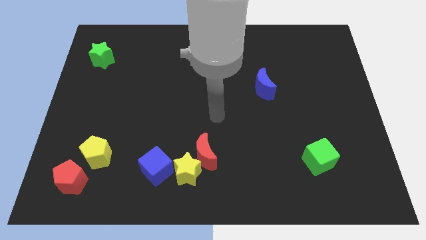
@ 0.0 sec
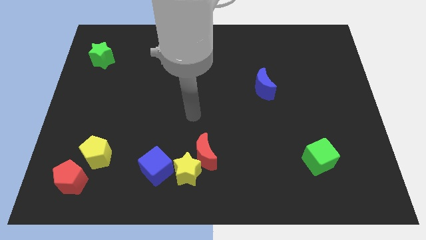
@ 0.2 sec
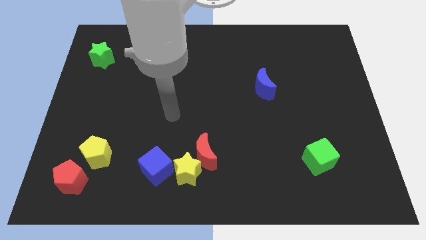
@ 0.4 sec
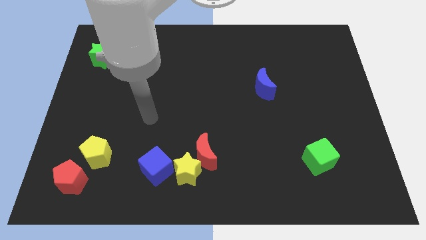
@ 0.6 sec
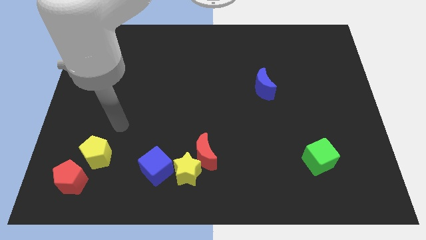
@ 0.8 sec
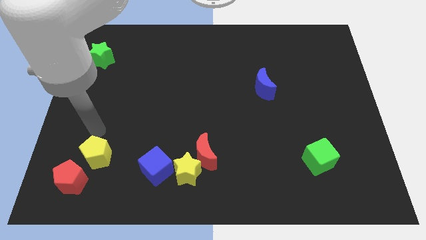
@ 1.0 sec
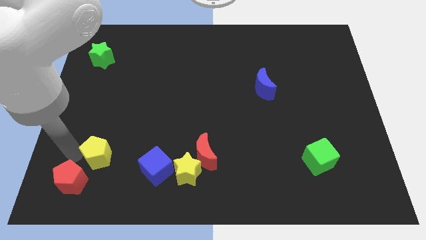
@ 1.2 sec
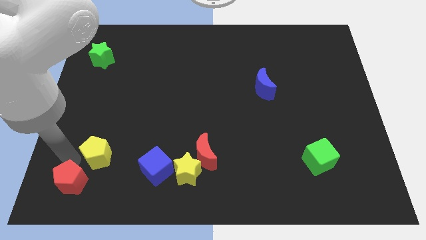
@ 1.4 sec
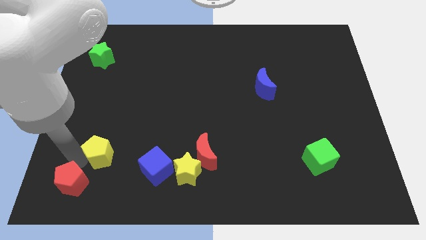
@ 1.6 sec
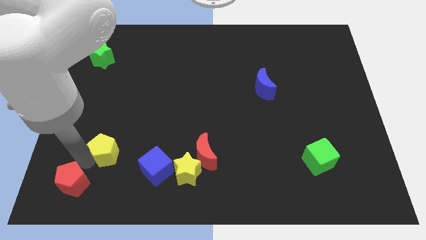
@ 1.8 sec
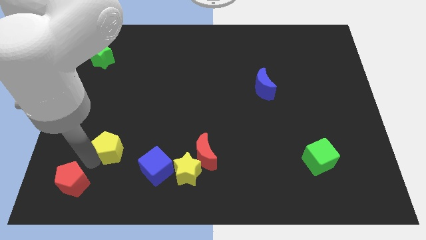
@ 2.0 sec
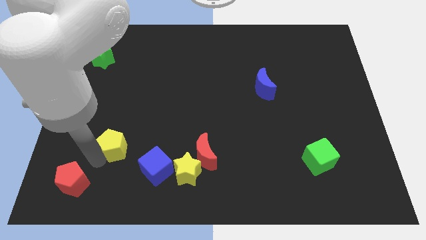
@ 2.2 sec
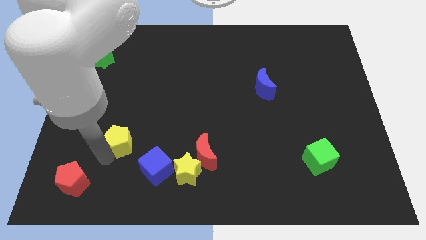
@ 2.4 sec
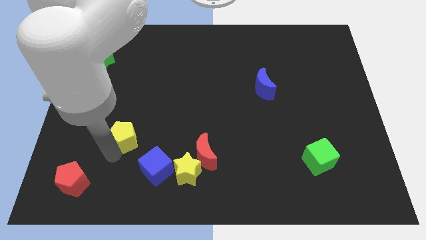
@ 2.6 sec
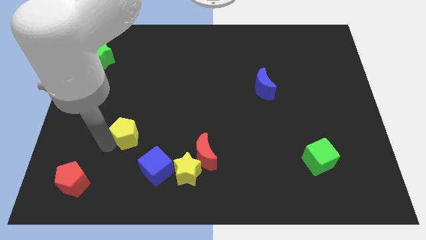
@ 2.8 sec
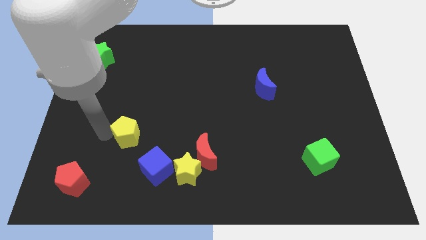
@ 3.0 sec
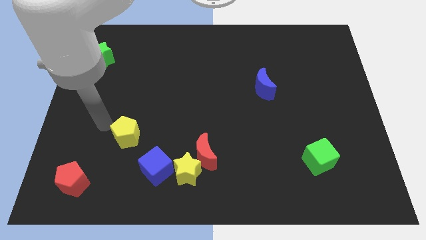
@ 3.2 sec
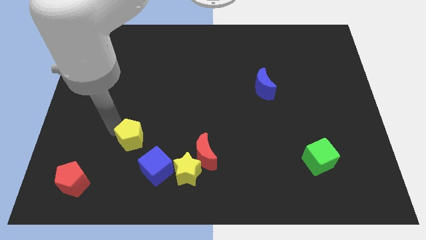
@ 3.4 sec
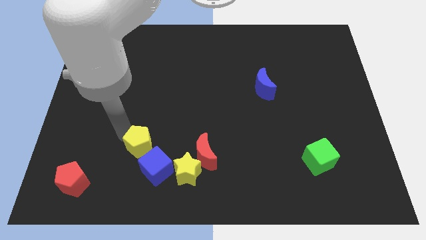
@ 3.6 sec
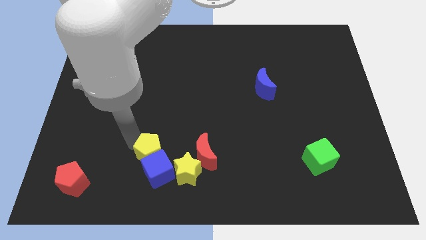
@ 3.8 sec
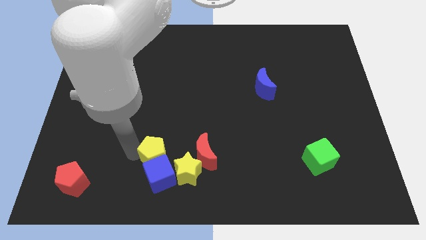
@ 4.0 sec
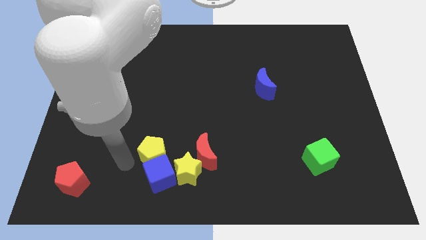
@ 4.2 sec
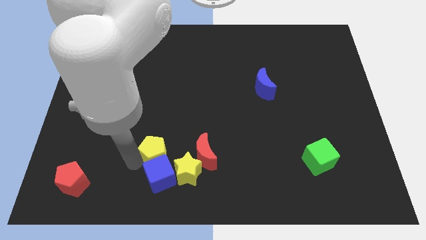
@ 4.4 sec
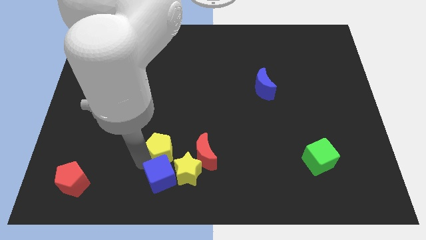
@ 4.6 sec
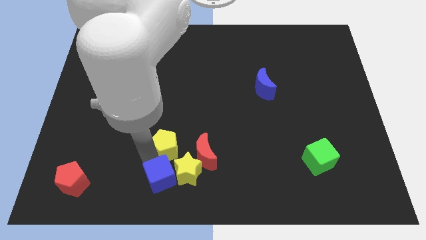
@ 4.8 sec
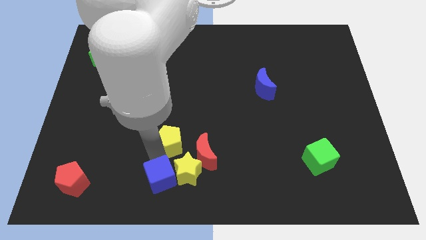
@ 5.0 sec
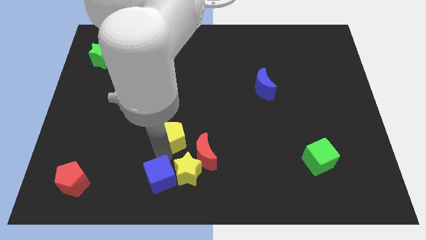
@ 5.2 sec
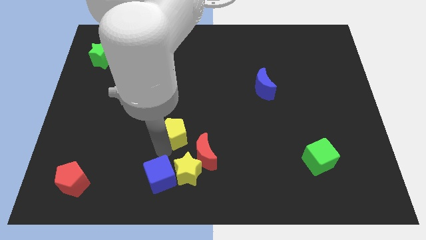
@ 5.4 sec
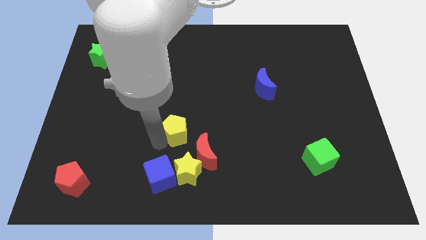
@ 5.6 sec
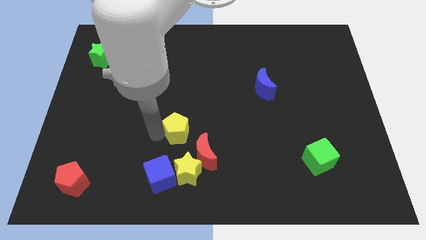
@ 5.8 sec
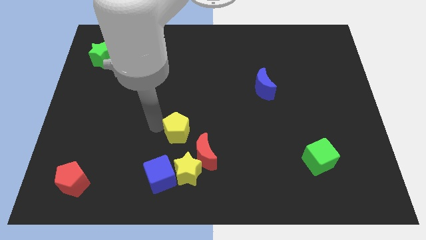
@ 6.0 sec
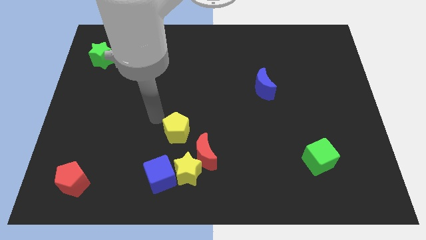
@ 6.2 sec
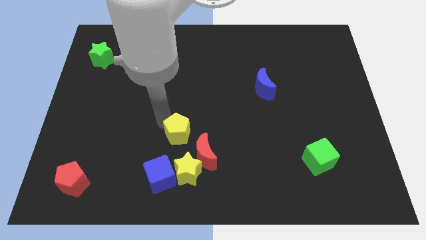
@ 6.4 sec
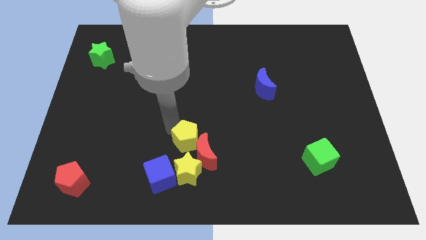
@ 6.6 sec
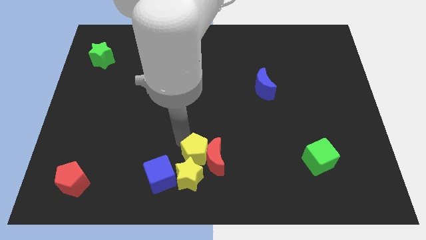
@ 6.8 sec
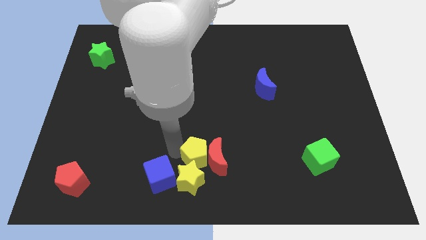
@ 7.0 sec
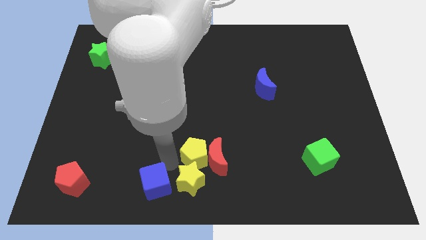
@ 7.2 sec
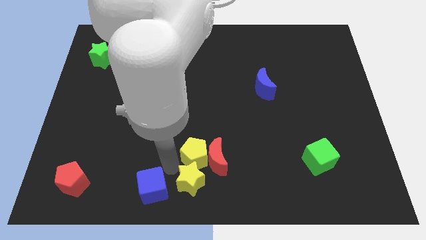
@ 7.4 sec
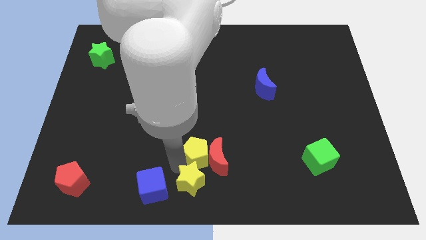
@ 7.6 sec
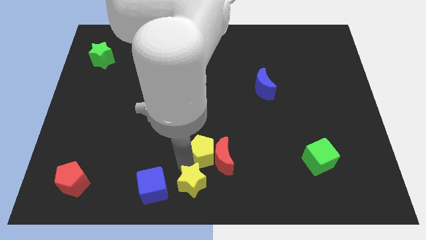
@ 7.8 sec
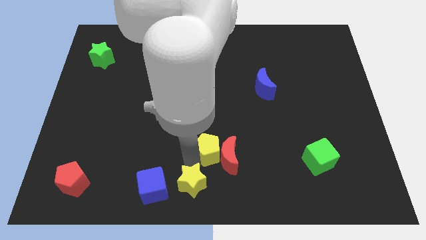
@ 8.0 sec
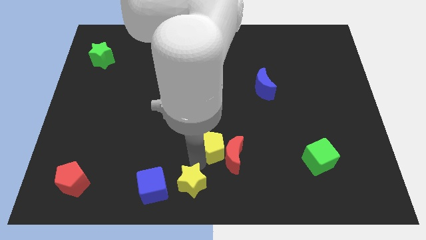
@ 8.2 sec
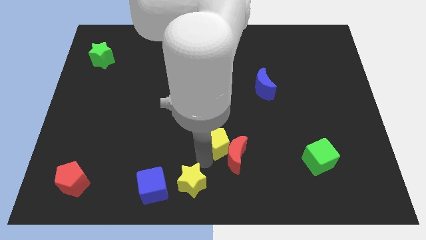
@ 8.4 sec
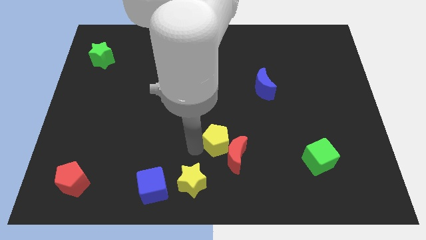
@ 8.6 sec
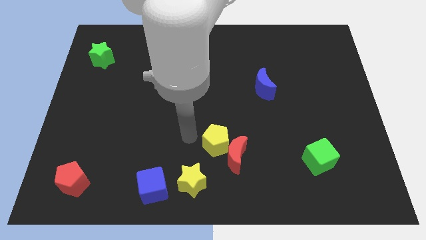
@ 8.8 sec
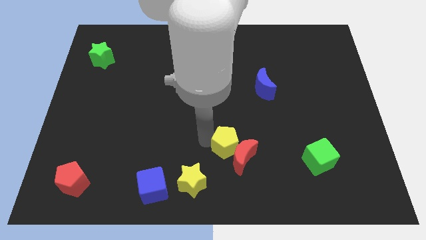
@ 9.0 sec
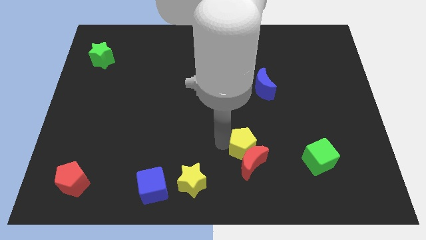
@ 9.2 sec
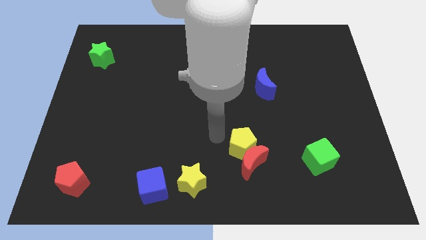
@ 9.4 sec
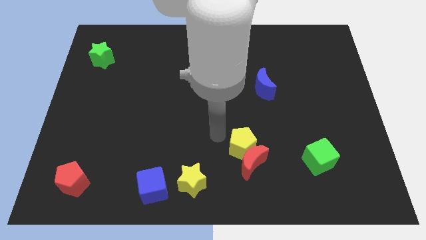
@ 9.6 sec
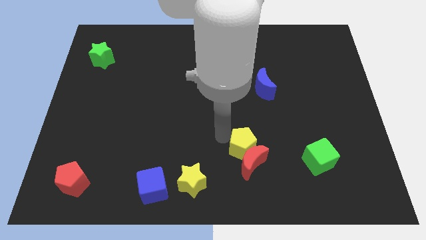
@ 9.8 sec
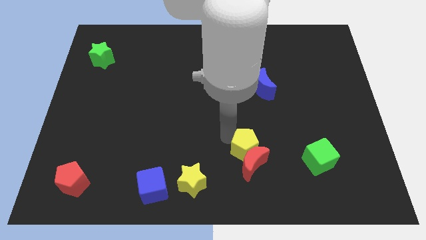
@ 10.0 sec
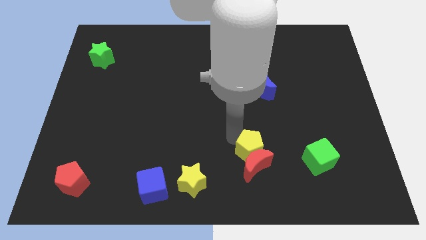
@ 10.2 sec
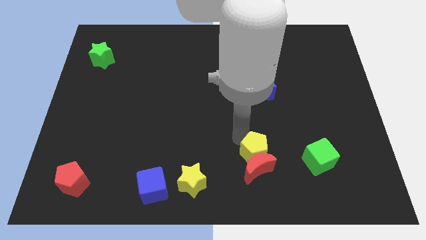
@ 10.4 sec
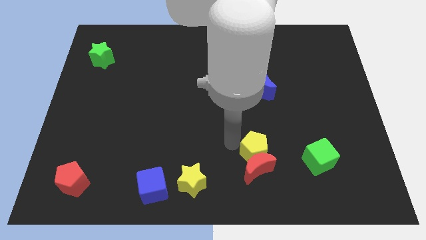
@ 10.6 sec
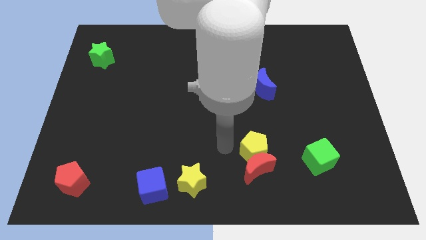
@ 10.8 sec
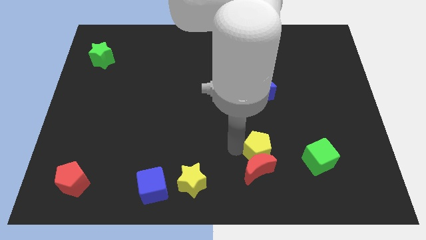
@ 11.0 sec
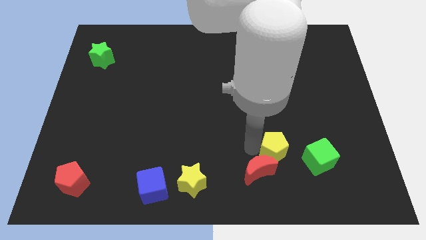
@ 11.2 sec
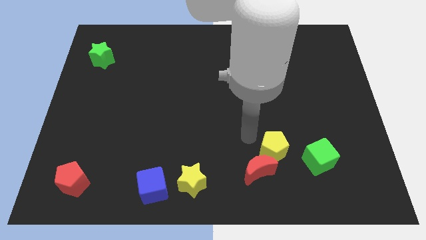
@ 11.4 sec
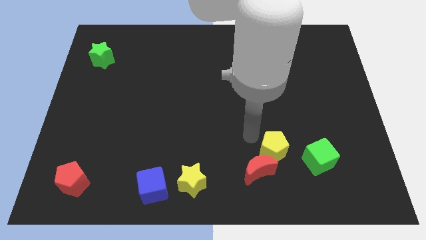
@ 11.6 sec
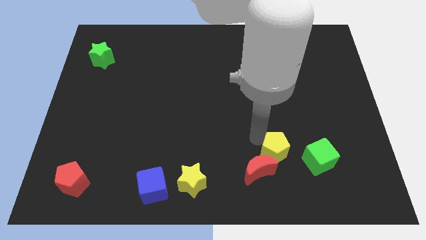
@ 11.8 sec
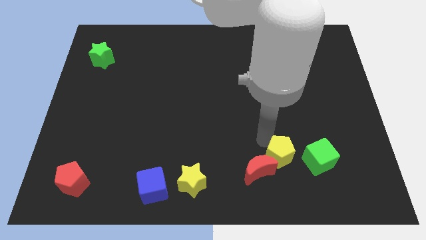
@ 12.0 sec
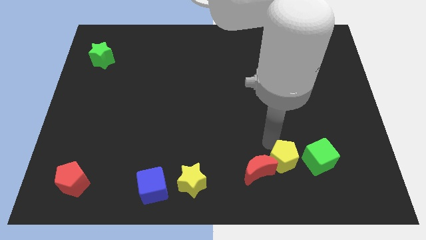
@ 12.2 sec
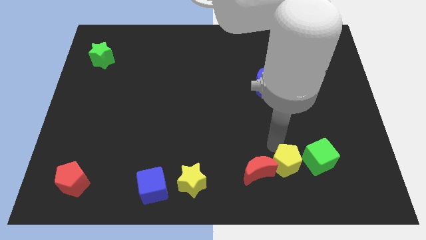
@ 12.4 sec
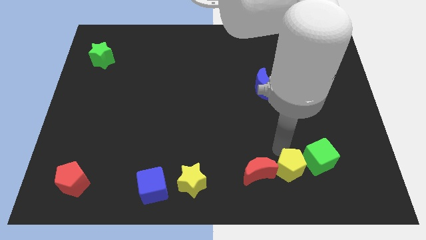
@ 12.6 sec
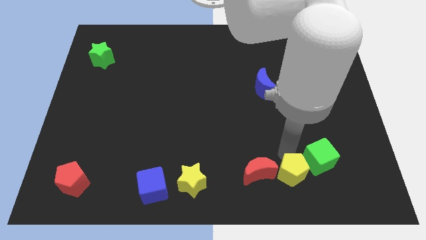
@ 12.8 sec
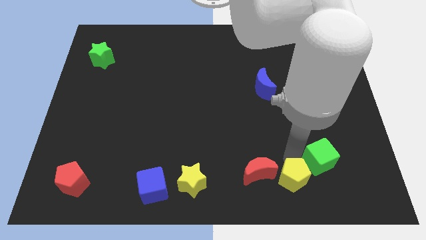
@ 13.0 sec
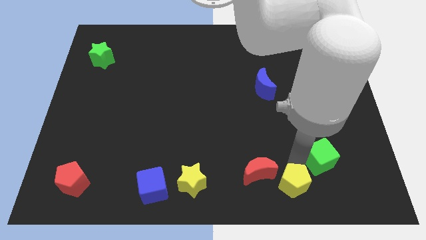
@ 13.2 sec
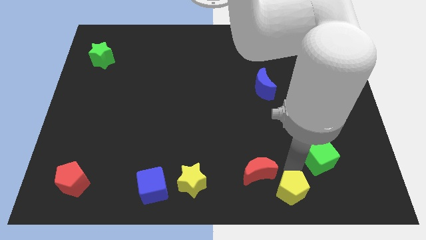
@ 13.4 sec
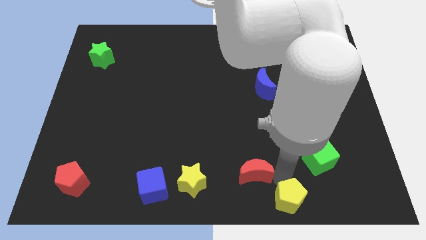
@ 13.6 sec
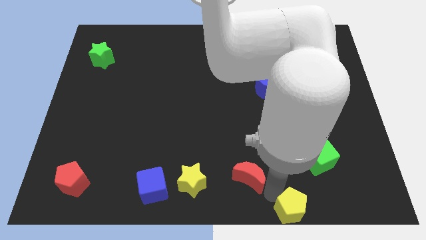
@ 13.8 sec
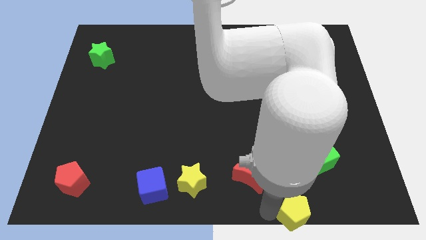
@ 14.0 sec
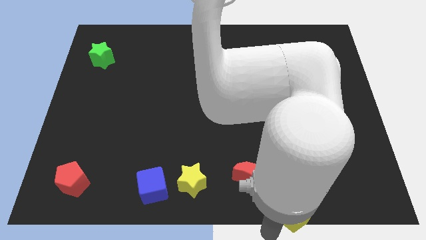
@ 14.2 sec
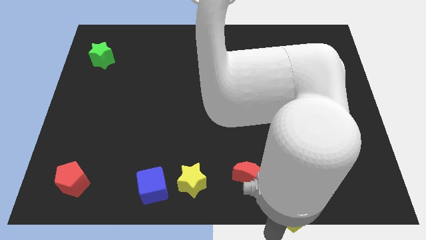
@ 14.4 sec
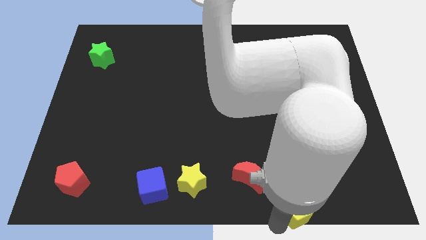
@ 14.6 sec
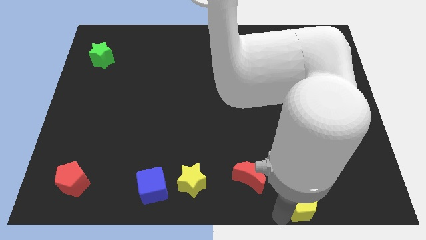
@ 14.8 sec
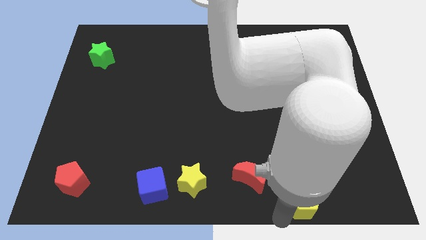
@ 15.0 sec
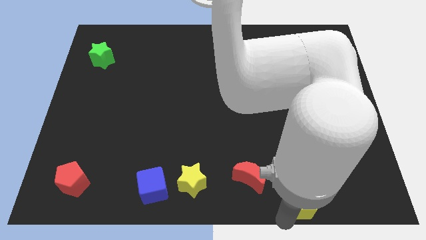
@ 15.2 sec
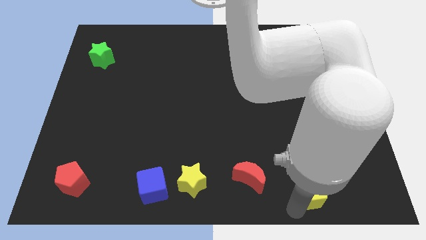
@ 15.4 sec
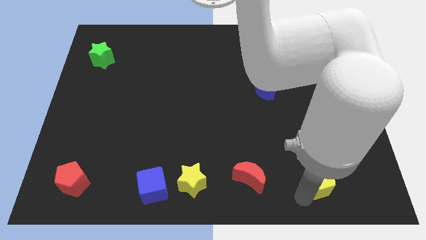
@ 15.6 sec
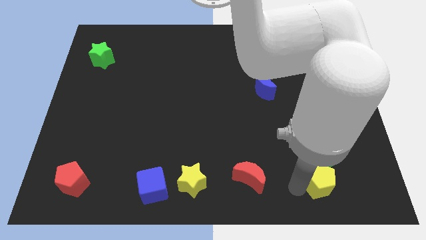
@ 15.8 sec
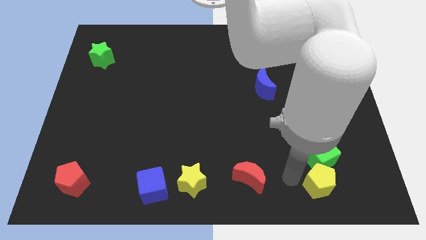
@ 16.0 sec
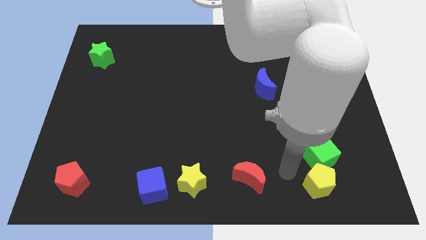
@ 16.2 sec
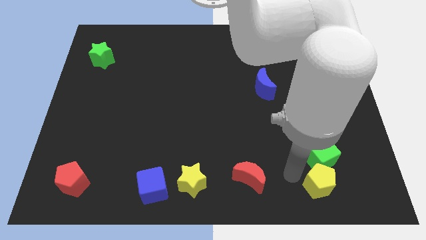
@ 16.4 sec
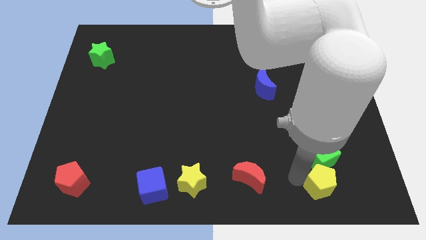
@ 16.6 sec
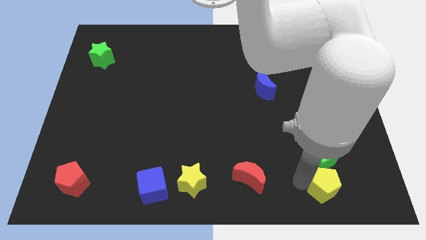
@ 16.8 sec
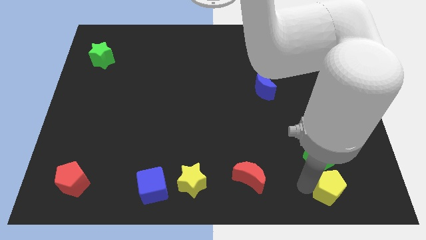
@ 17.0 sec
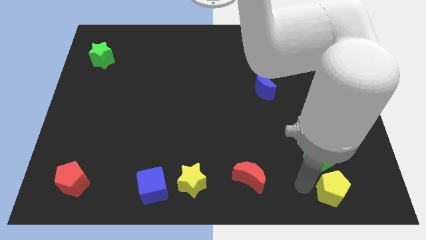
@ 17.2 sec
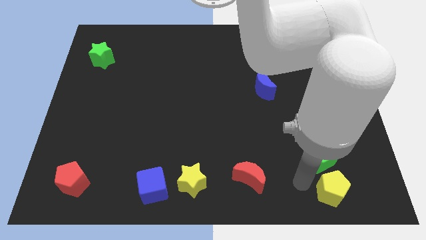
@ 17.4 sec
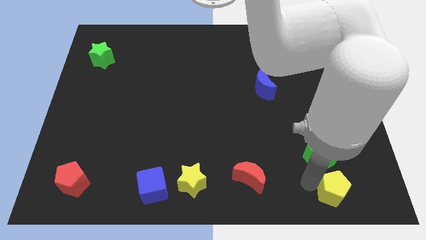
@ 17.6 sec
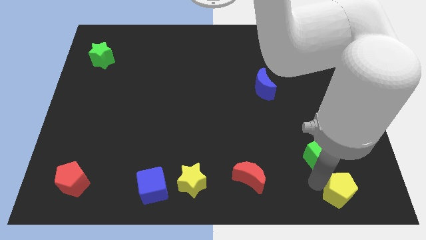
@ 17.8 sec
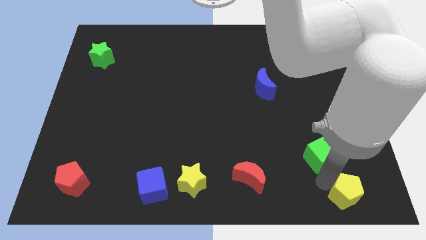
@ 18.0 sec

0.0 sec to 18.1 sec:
slide the yellow pentagon to the lower right corner
